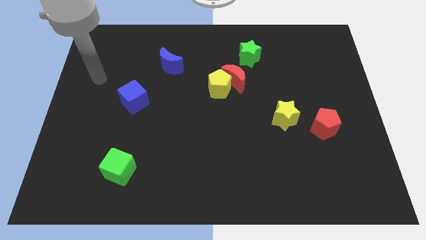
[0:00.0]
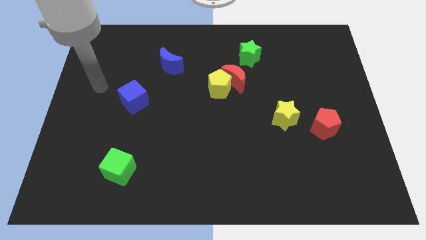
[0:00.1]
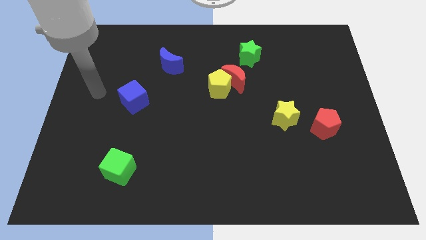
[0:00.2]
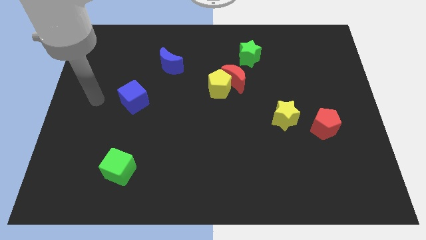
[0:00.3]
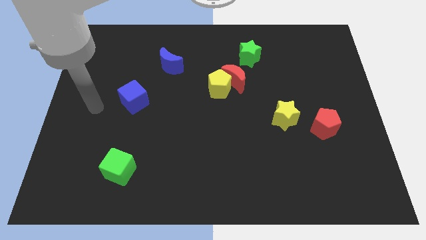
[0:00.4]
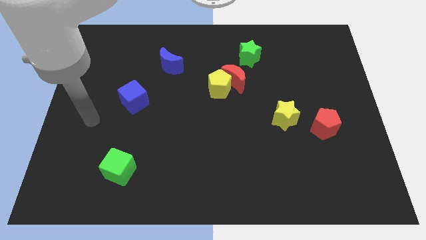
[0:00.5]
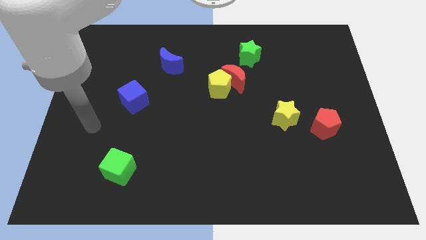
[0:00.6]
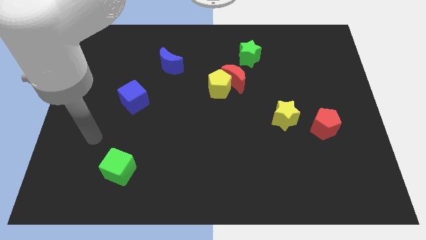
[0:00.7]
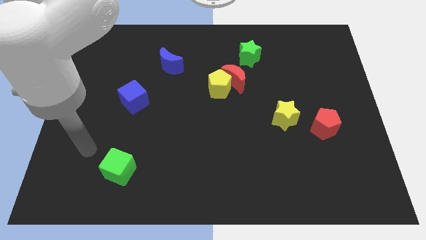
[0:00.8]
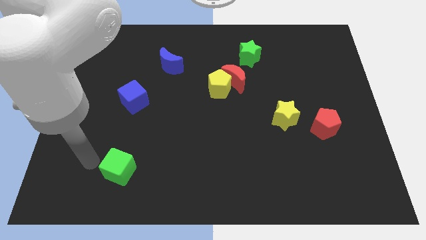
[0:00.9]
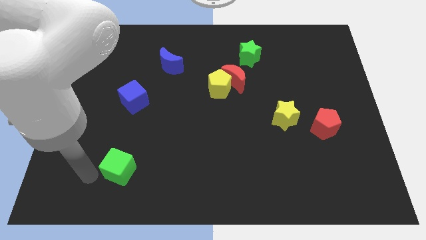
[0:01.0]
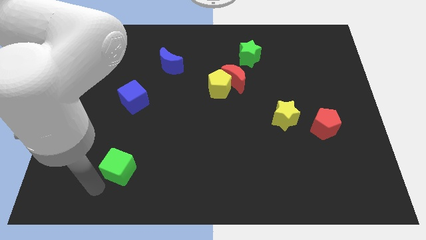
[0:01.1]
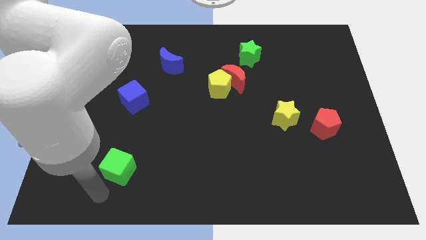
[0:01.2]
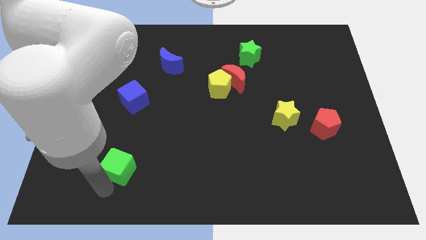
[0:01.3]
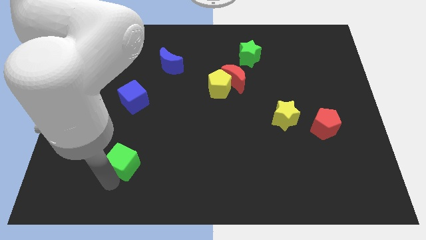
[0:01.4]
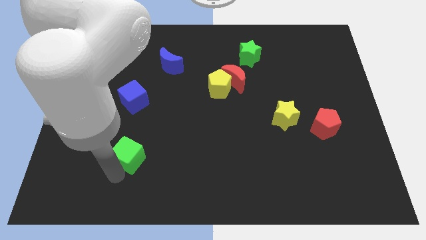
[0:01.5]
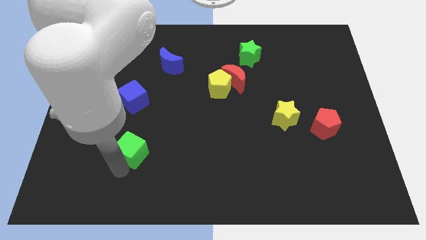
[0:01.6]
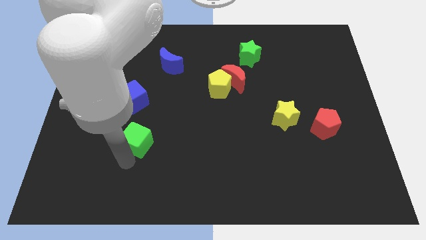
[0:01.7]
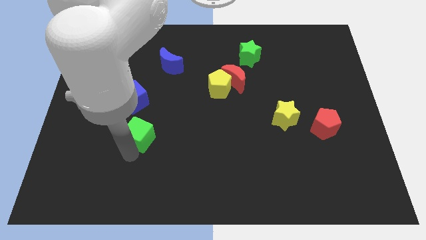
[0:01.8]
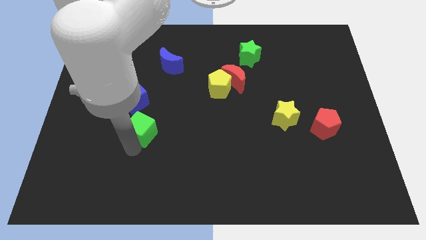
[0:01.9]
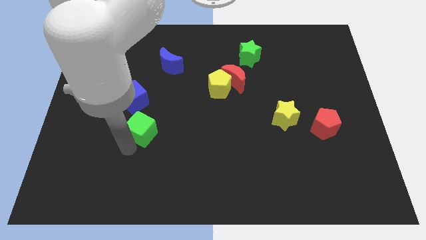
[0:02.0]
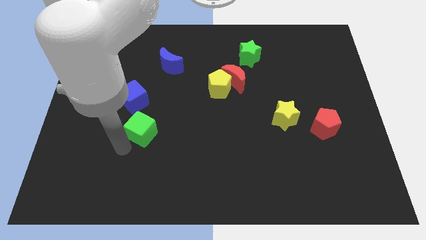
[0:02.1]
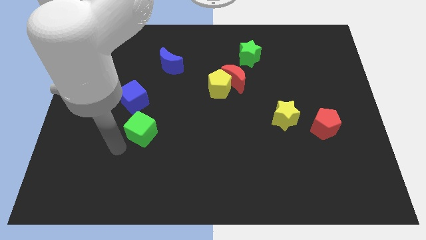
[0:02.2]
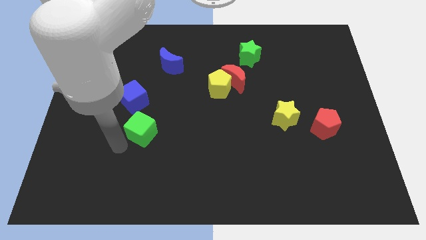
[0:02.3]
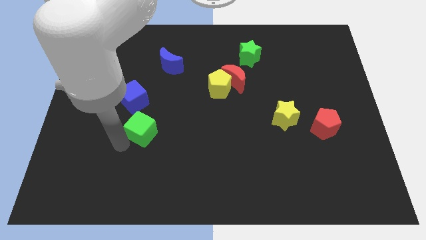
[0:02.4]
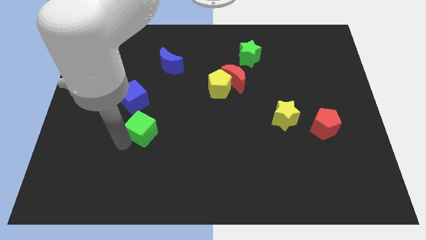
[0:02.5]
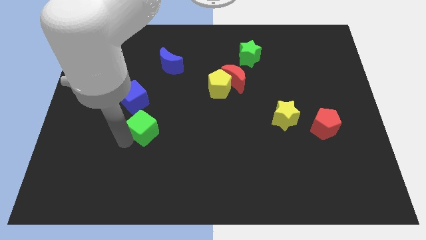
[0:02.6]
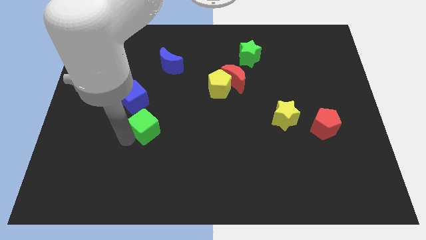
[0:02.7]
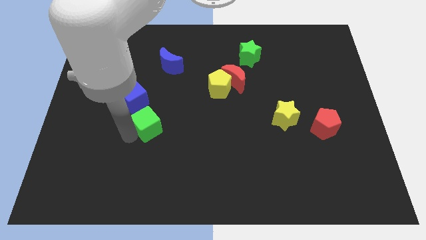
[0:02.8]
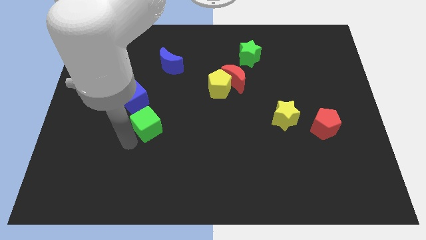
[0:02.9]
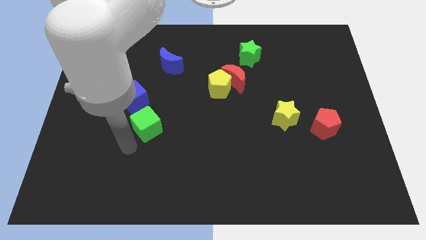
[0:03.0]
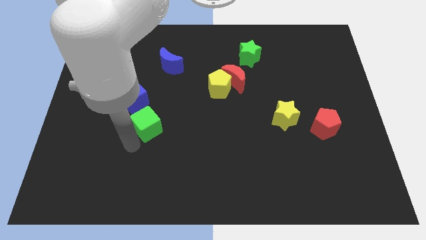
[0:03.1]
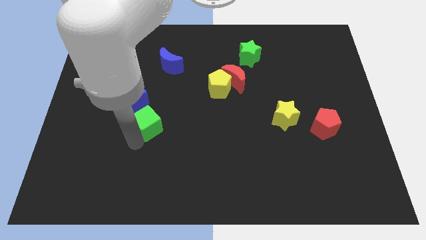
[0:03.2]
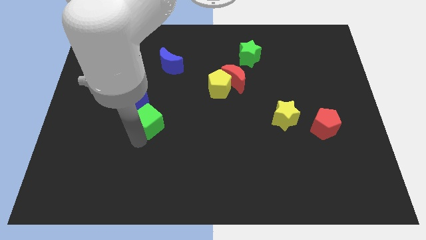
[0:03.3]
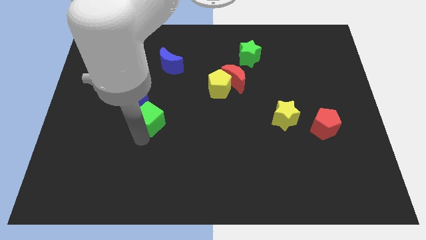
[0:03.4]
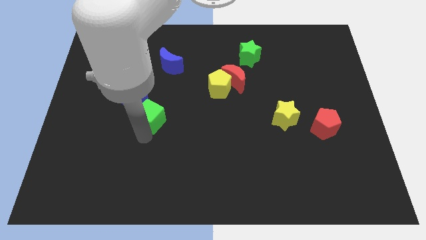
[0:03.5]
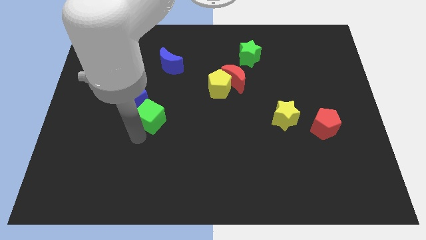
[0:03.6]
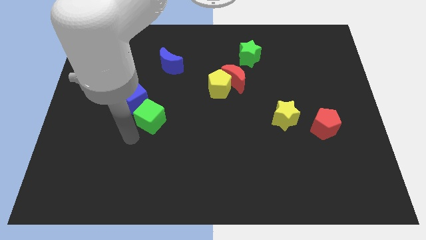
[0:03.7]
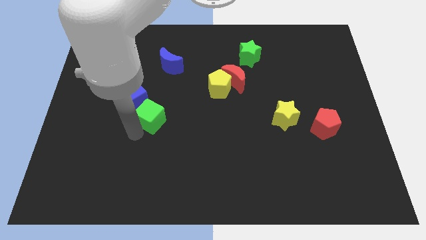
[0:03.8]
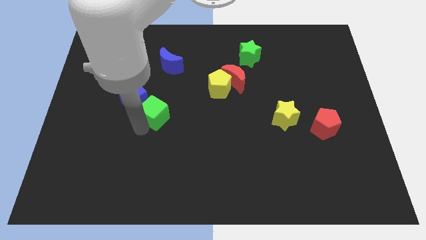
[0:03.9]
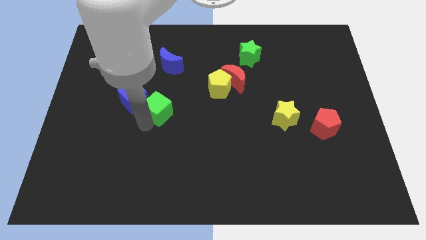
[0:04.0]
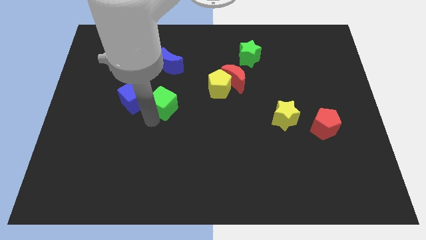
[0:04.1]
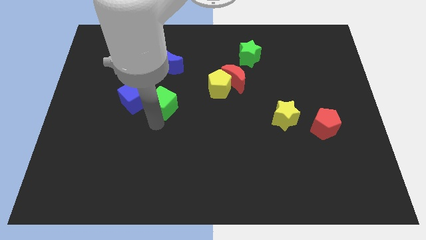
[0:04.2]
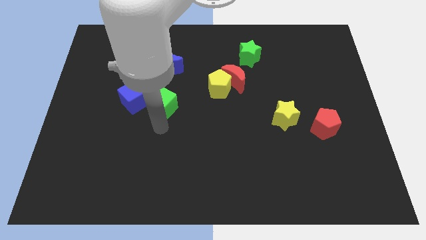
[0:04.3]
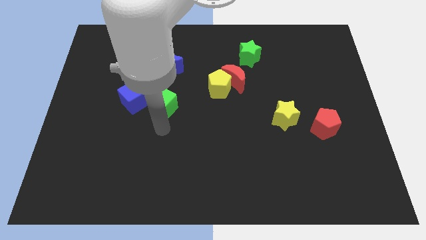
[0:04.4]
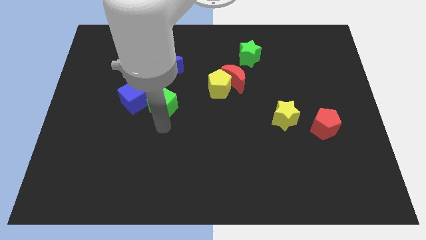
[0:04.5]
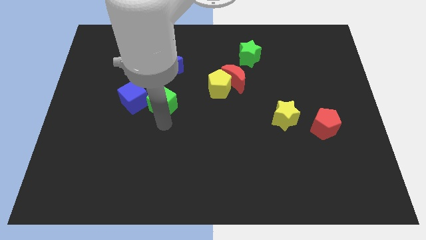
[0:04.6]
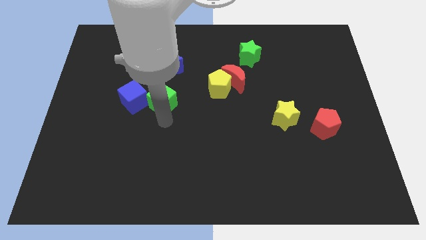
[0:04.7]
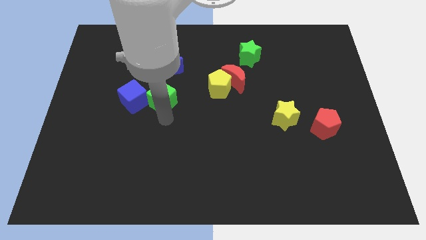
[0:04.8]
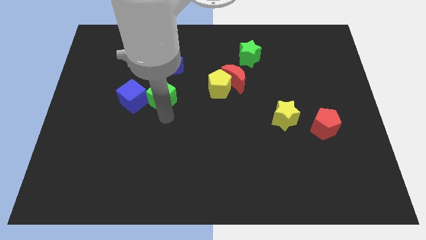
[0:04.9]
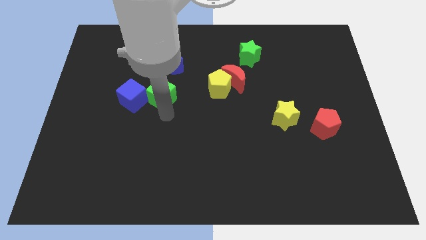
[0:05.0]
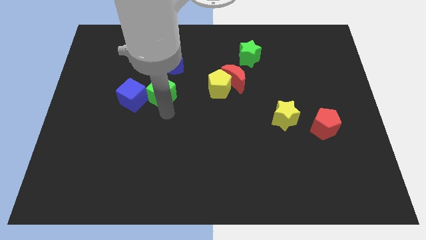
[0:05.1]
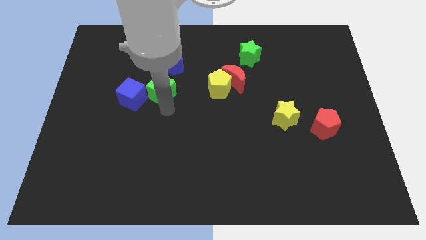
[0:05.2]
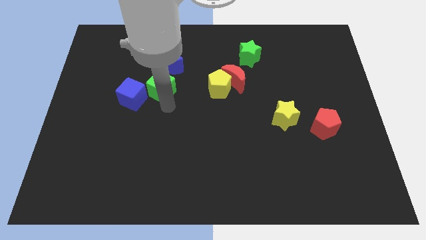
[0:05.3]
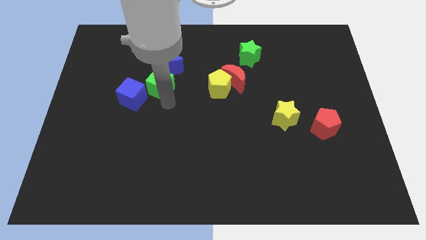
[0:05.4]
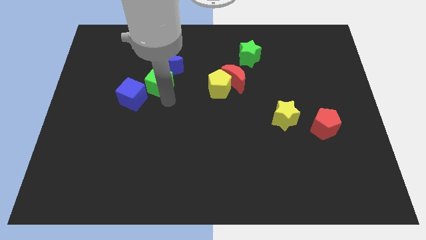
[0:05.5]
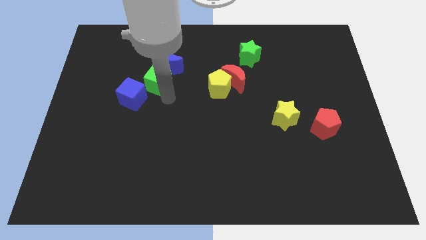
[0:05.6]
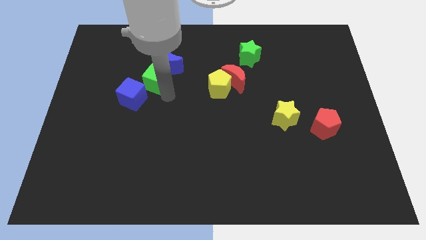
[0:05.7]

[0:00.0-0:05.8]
move the green cube next to the blue moon

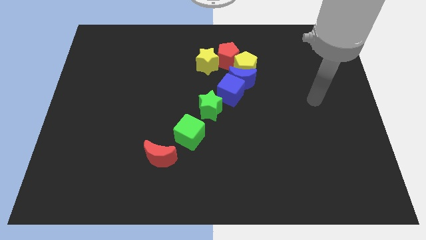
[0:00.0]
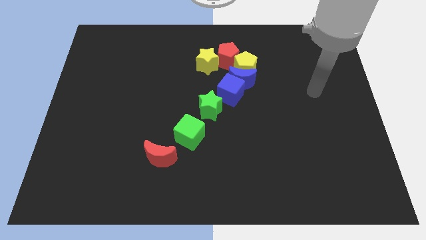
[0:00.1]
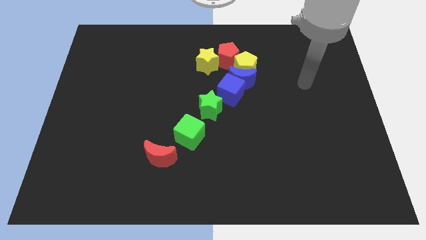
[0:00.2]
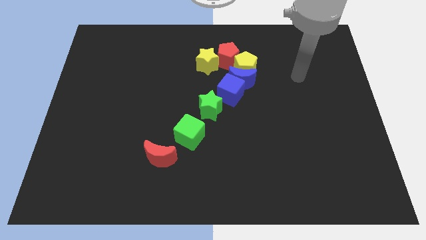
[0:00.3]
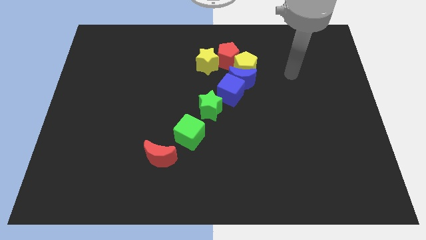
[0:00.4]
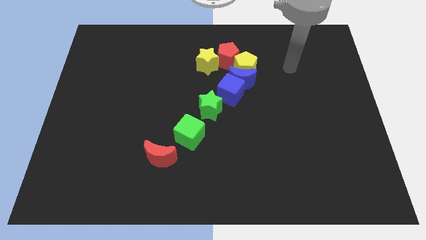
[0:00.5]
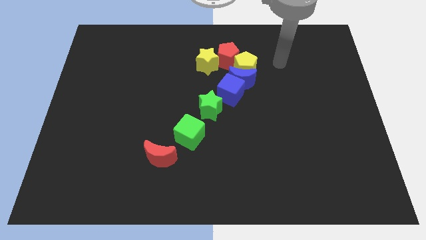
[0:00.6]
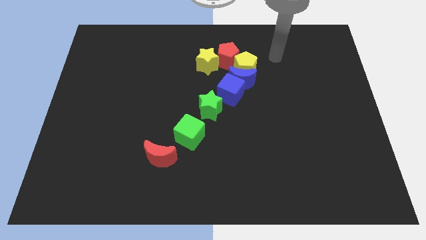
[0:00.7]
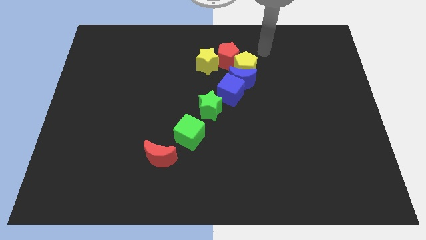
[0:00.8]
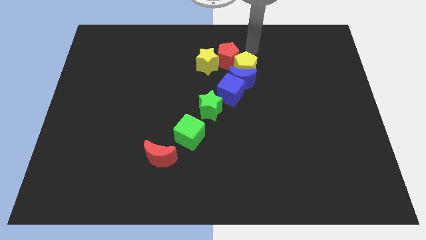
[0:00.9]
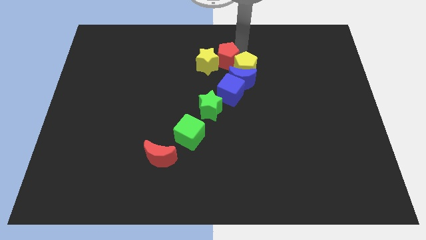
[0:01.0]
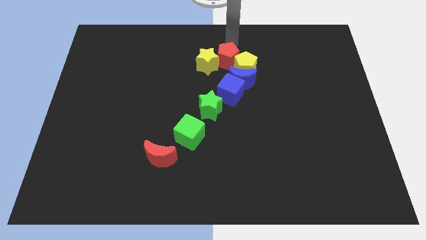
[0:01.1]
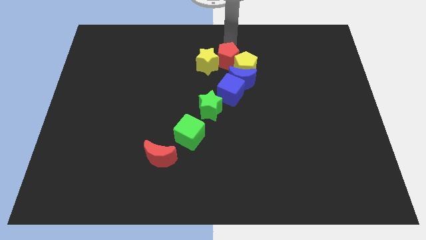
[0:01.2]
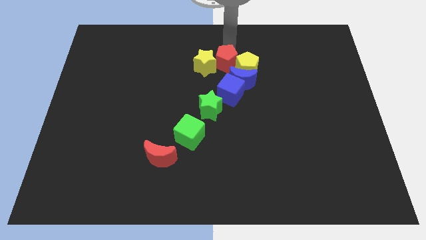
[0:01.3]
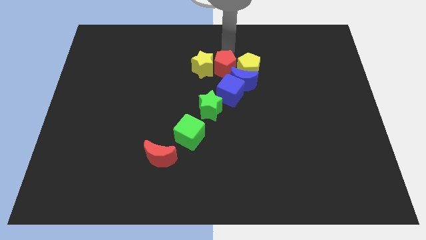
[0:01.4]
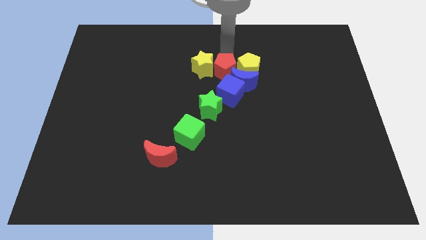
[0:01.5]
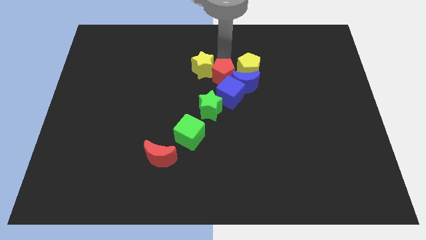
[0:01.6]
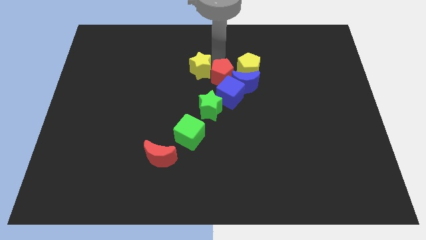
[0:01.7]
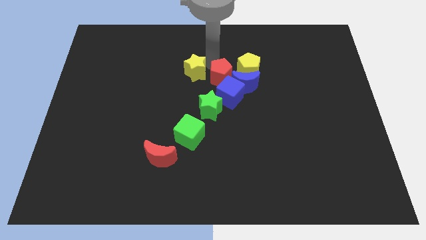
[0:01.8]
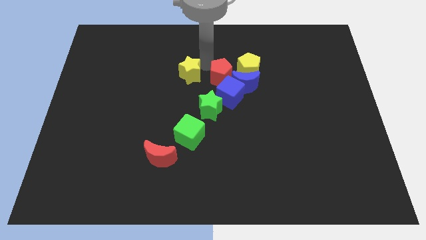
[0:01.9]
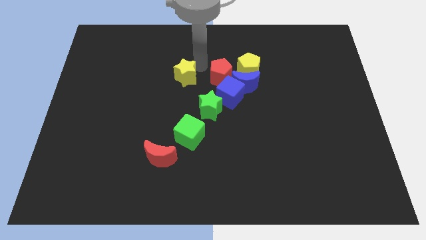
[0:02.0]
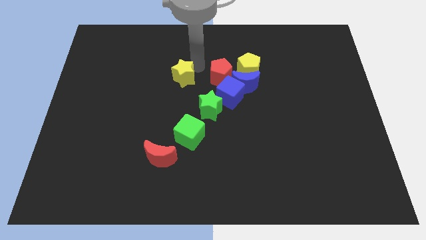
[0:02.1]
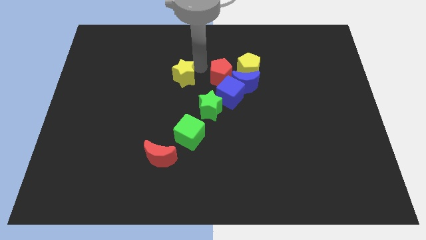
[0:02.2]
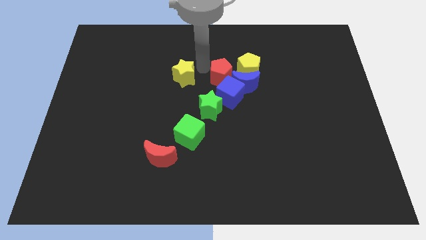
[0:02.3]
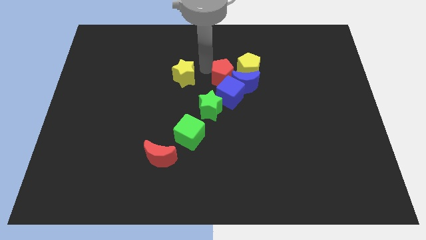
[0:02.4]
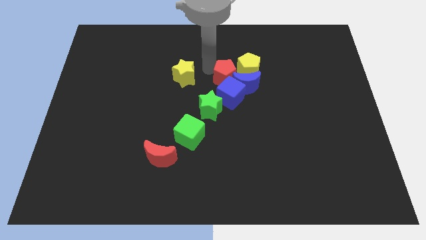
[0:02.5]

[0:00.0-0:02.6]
slide the red pentagon to the blue moon
